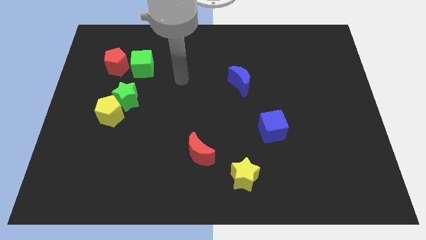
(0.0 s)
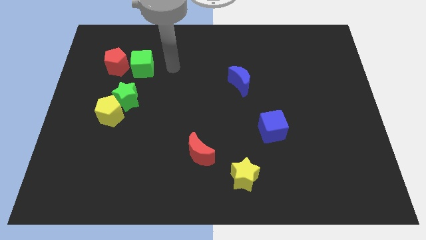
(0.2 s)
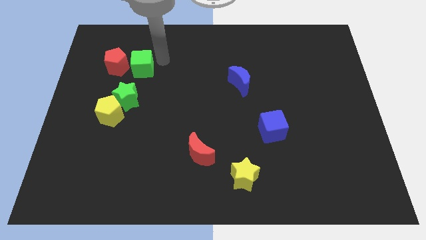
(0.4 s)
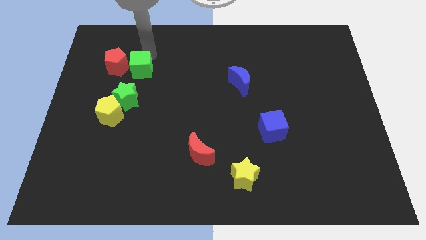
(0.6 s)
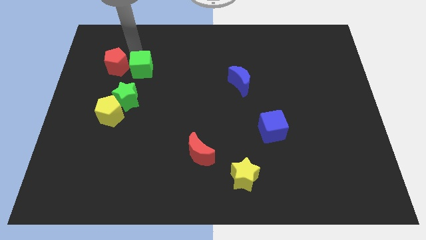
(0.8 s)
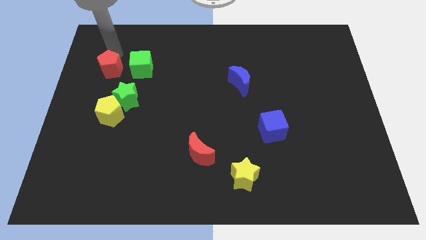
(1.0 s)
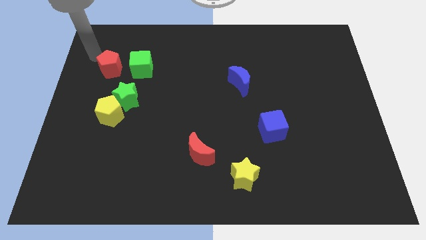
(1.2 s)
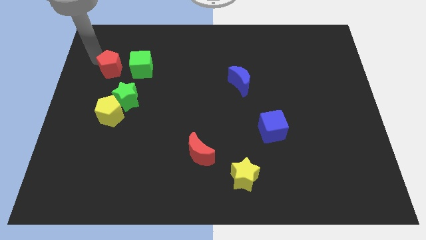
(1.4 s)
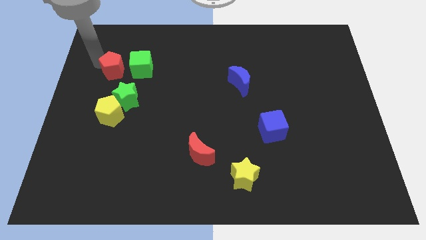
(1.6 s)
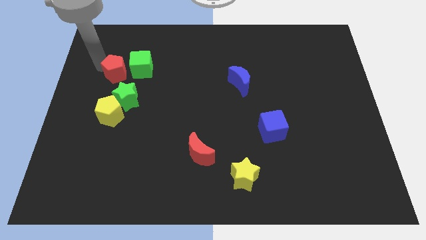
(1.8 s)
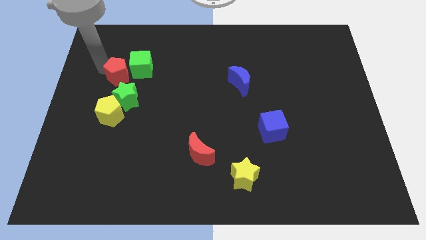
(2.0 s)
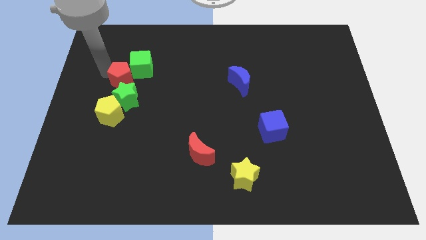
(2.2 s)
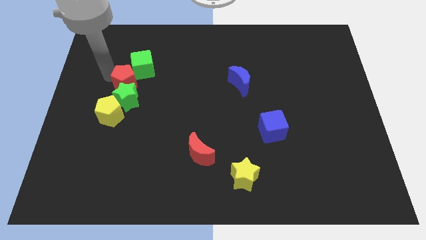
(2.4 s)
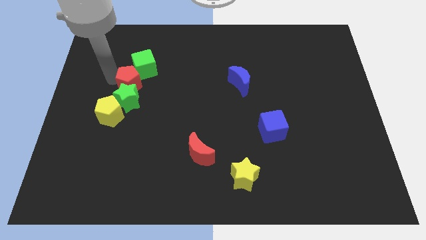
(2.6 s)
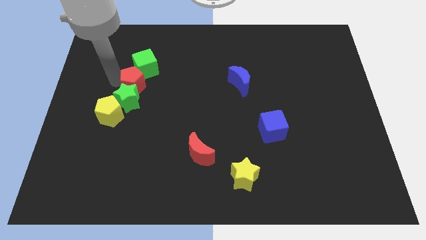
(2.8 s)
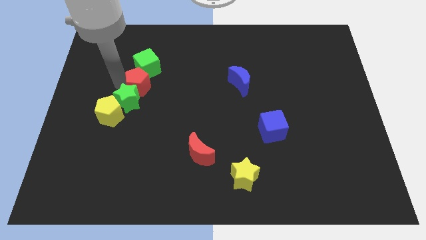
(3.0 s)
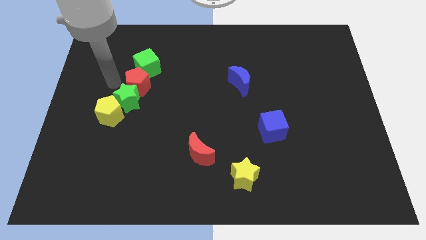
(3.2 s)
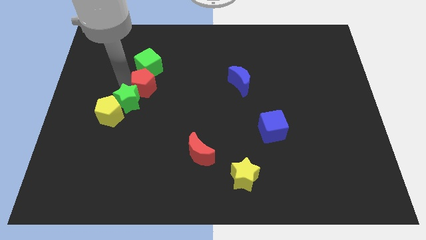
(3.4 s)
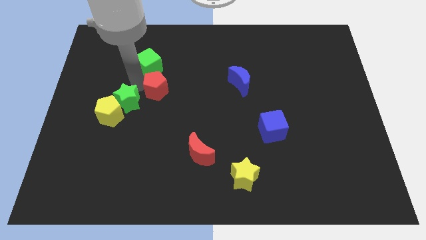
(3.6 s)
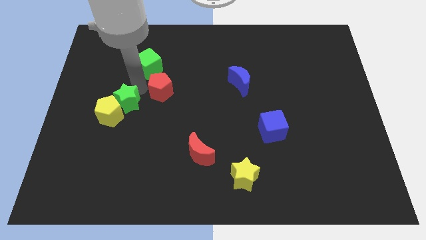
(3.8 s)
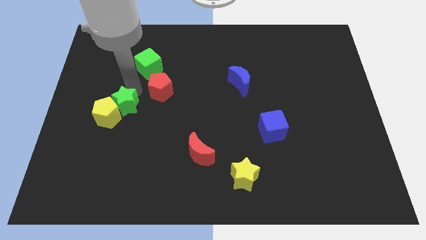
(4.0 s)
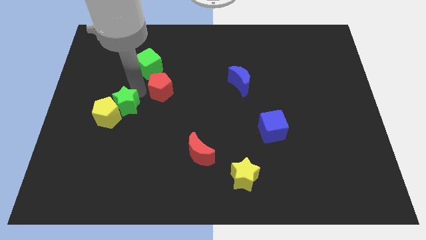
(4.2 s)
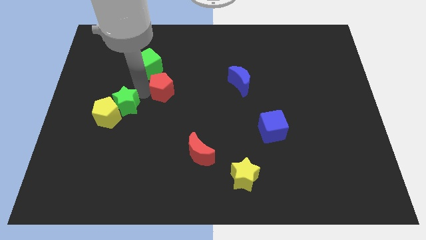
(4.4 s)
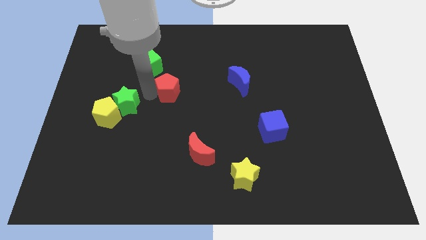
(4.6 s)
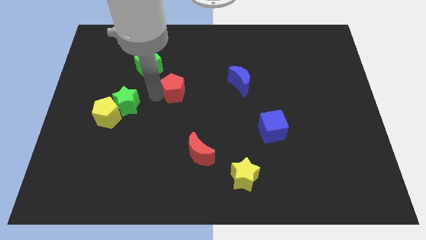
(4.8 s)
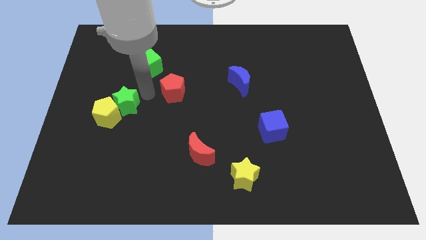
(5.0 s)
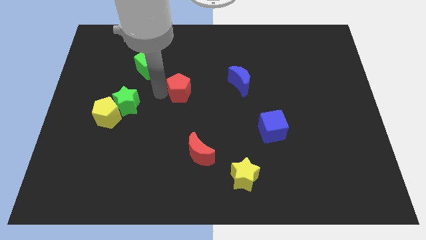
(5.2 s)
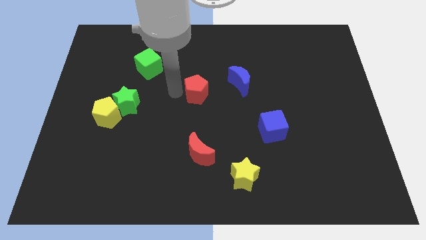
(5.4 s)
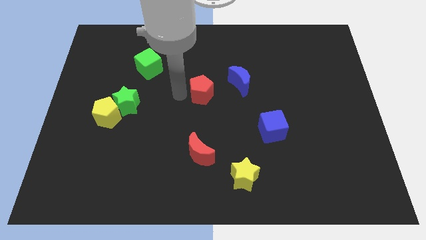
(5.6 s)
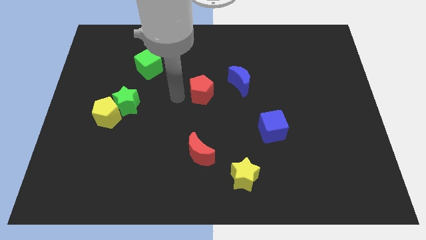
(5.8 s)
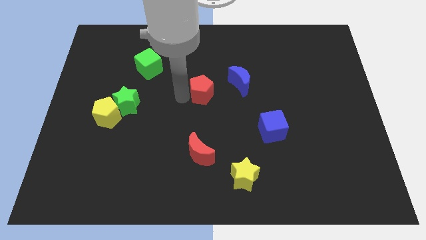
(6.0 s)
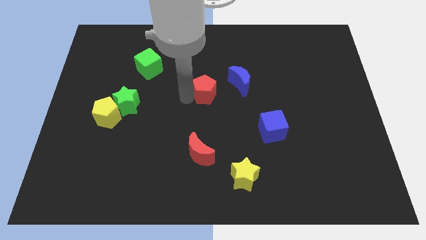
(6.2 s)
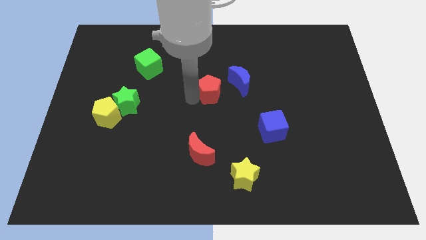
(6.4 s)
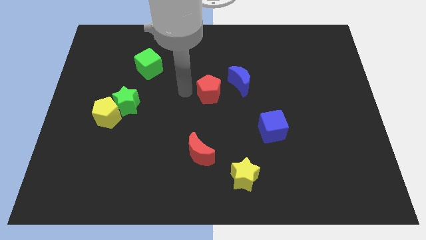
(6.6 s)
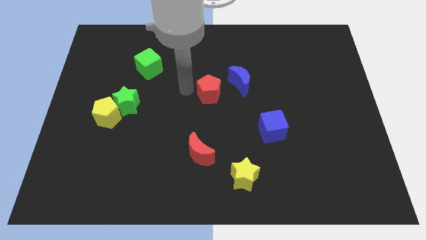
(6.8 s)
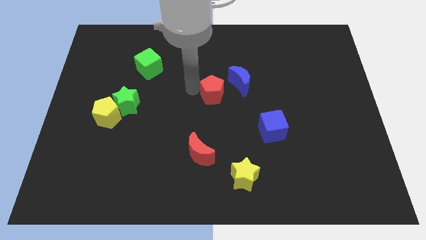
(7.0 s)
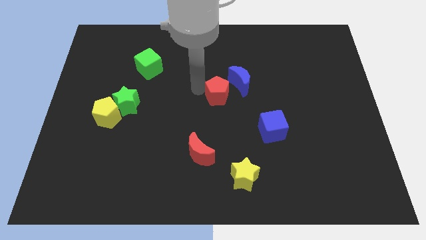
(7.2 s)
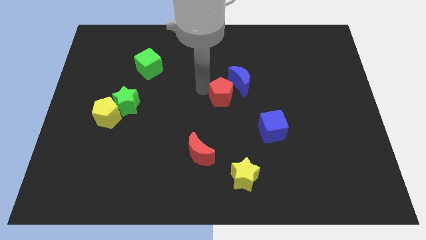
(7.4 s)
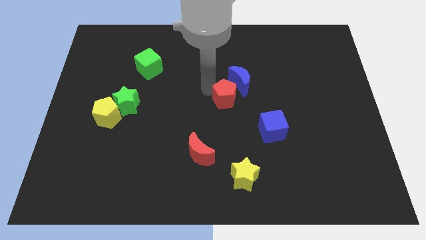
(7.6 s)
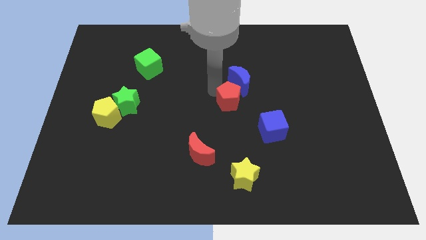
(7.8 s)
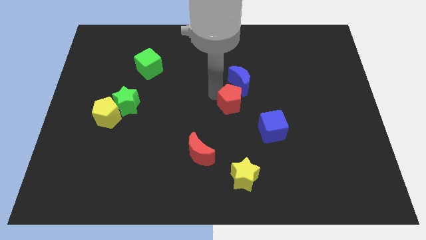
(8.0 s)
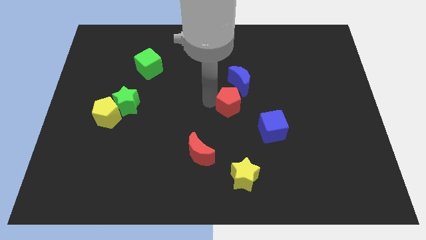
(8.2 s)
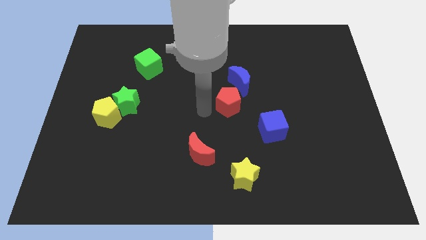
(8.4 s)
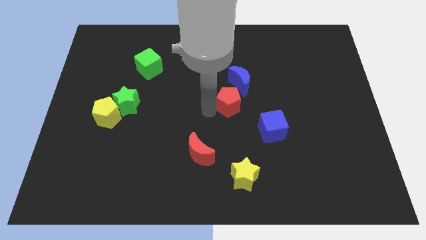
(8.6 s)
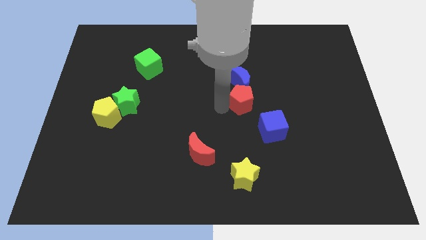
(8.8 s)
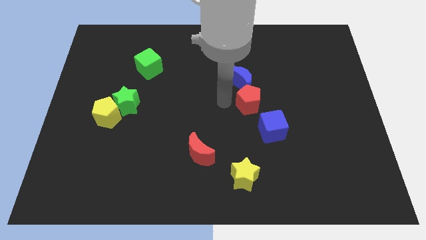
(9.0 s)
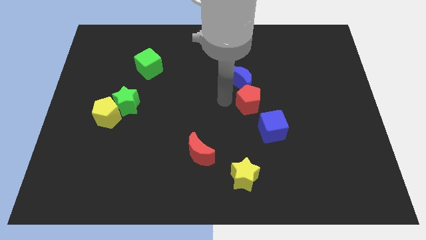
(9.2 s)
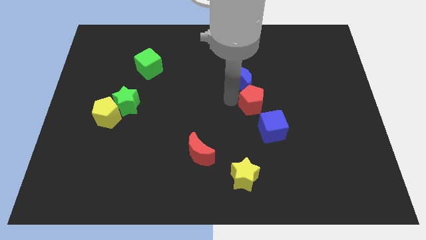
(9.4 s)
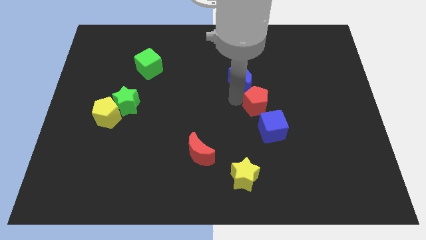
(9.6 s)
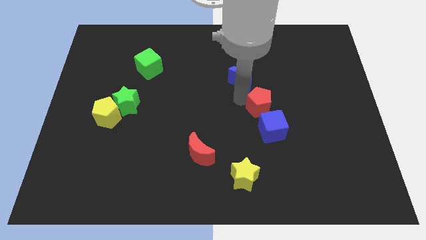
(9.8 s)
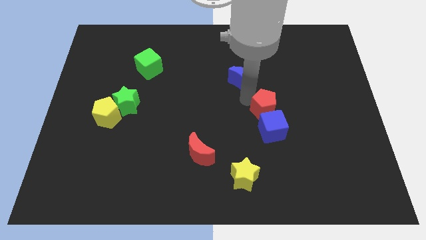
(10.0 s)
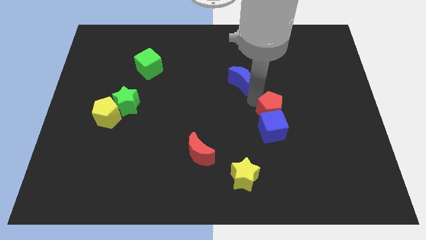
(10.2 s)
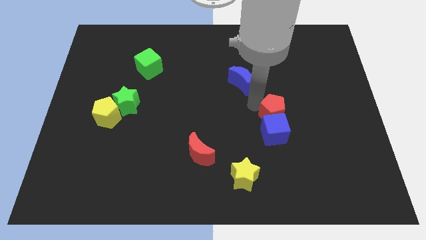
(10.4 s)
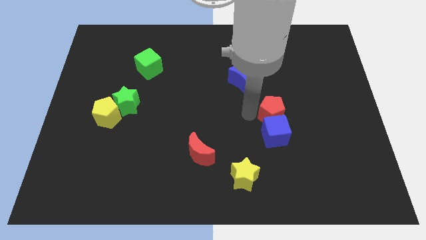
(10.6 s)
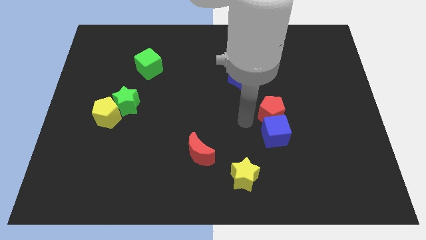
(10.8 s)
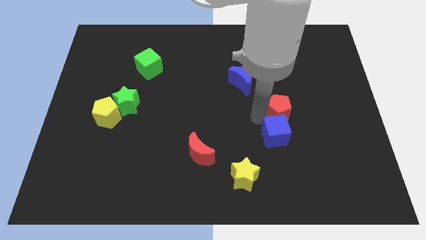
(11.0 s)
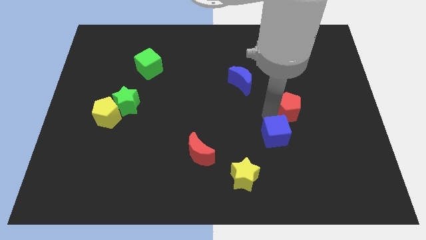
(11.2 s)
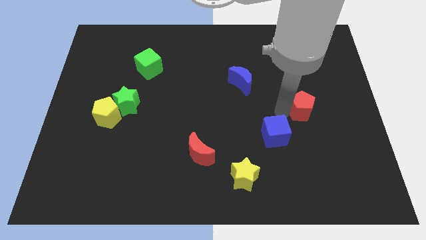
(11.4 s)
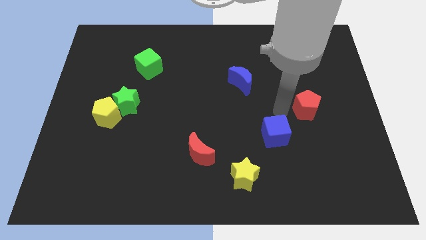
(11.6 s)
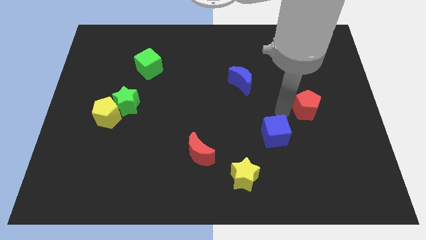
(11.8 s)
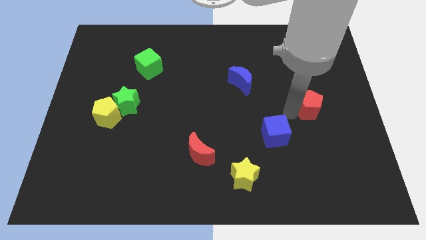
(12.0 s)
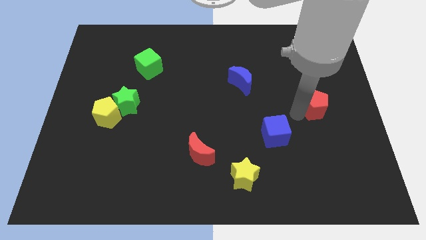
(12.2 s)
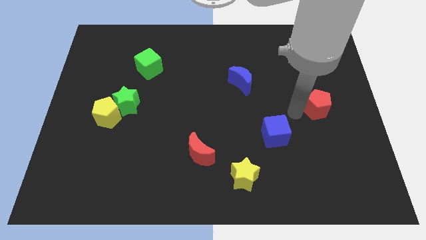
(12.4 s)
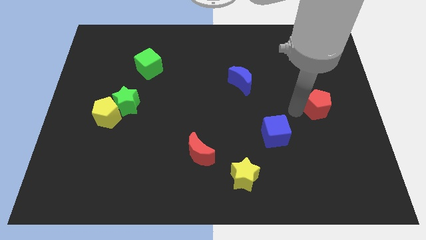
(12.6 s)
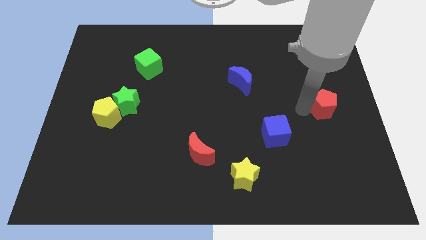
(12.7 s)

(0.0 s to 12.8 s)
slide the red pentagon to the right side
